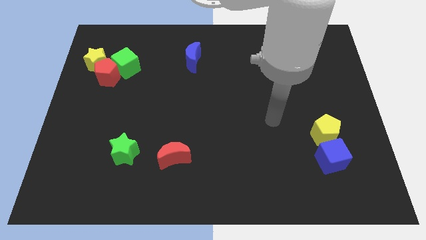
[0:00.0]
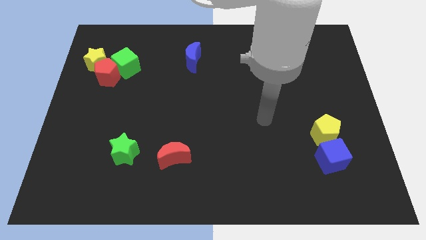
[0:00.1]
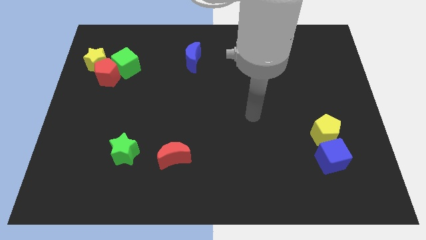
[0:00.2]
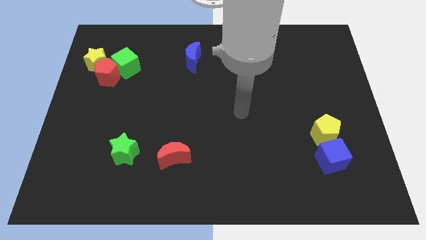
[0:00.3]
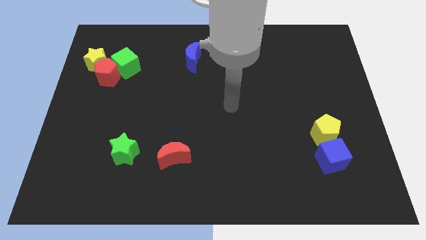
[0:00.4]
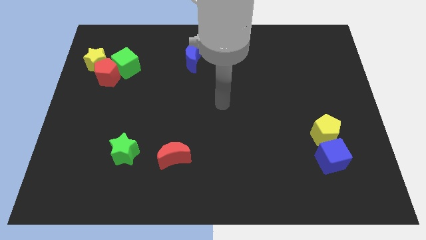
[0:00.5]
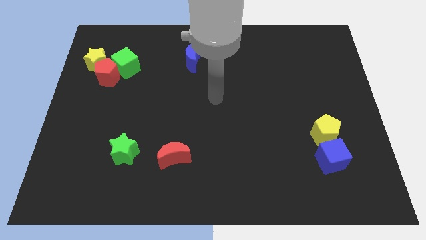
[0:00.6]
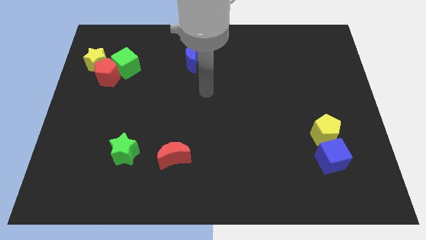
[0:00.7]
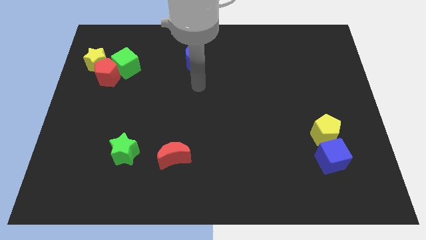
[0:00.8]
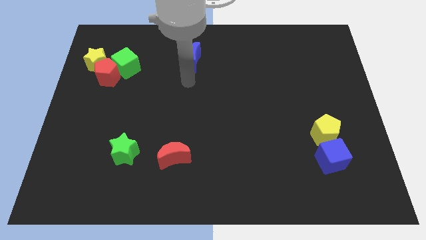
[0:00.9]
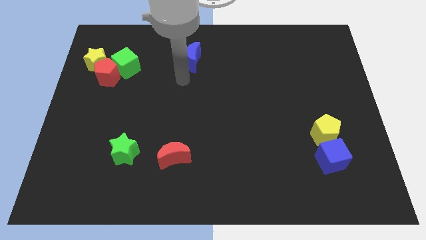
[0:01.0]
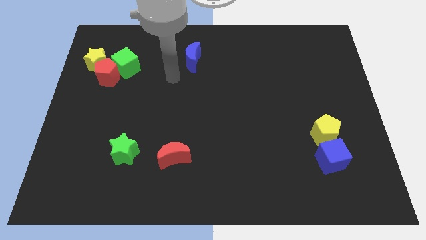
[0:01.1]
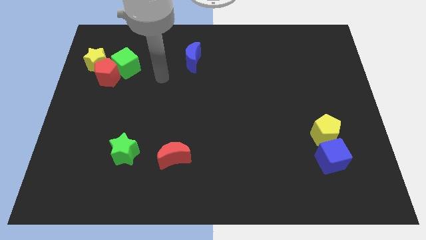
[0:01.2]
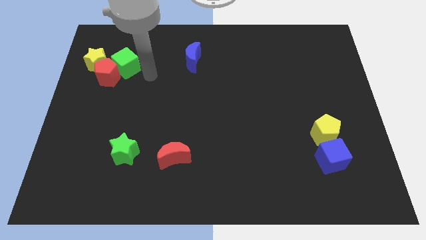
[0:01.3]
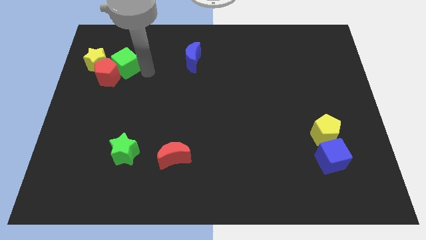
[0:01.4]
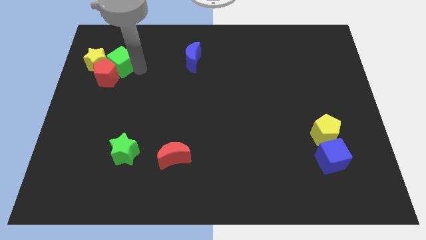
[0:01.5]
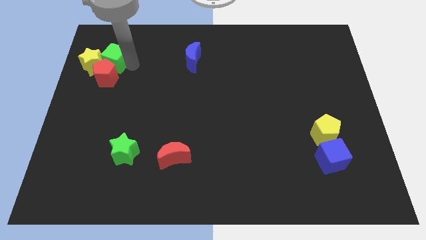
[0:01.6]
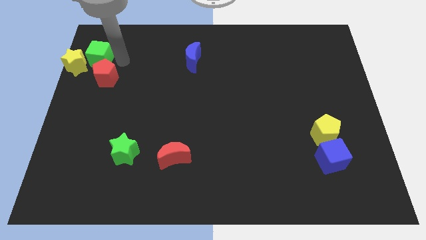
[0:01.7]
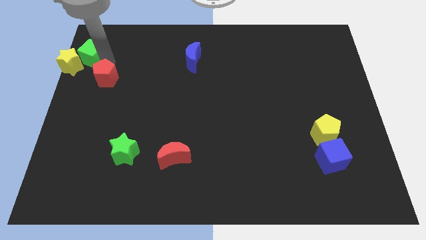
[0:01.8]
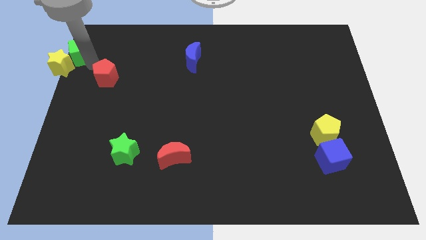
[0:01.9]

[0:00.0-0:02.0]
move the red pentagon away from the yellow star and green cube

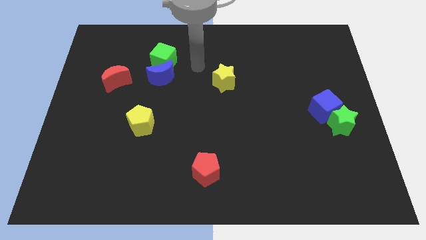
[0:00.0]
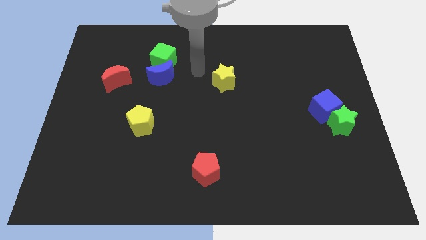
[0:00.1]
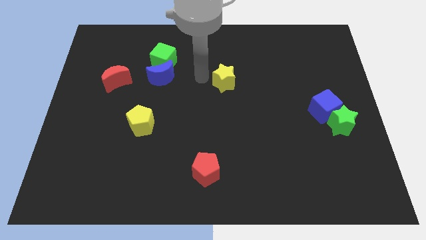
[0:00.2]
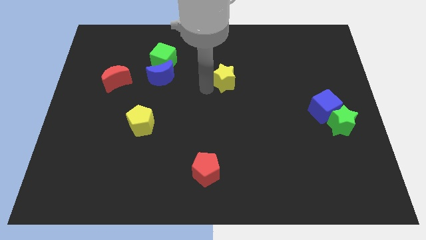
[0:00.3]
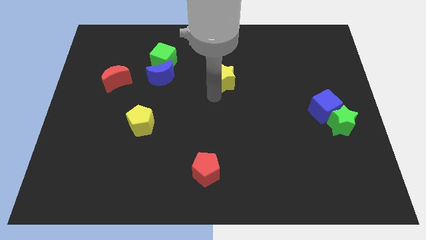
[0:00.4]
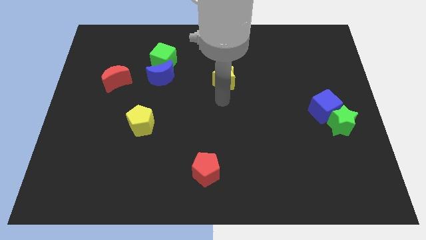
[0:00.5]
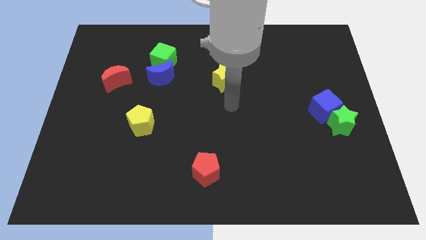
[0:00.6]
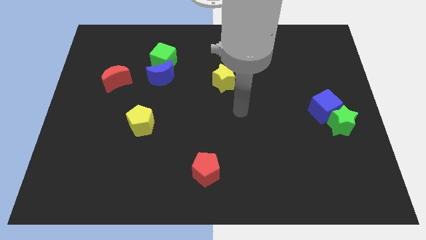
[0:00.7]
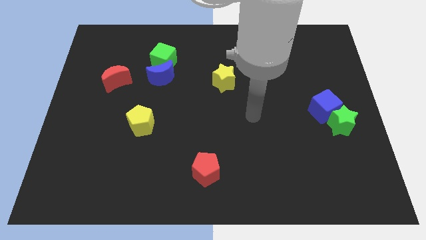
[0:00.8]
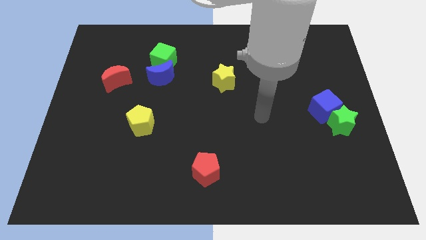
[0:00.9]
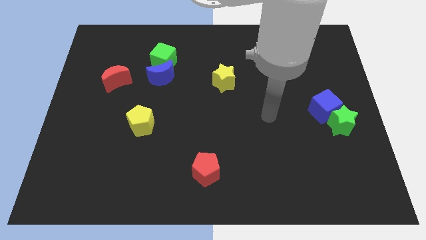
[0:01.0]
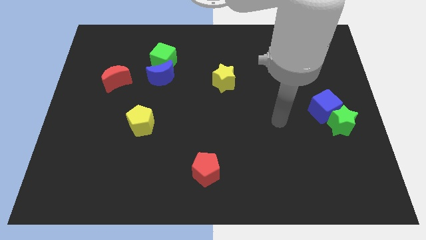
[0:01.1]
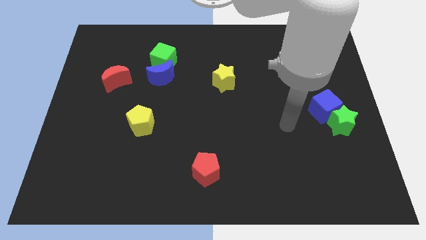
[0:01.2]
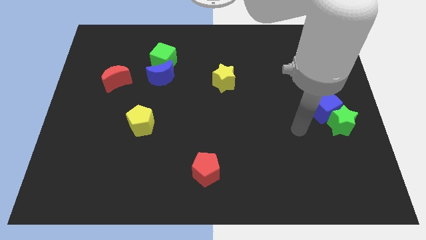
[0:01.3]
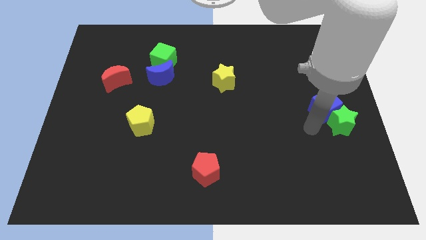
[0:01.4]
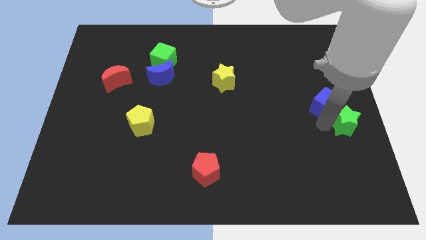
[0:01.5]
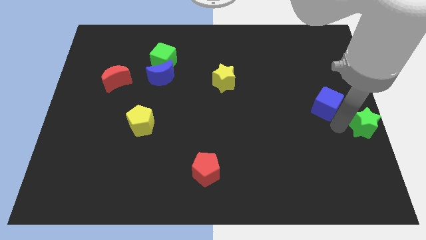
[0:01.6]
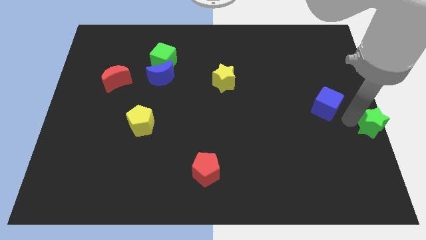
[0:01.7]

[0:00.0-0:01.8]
pull the blue cube apart from the green star

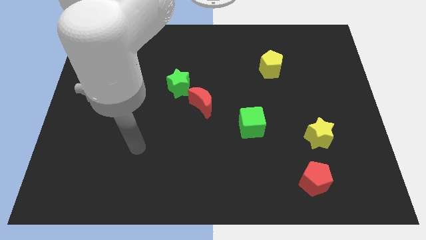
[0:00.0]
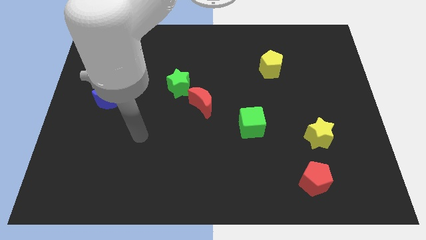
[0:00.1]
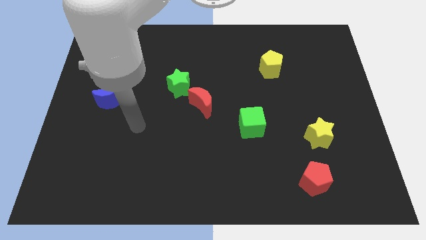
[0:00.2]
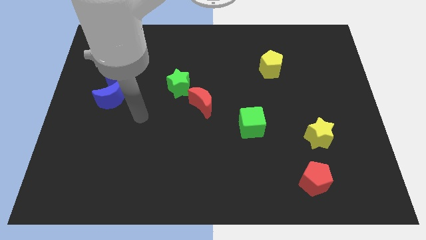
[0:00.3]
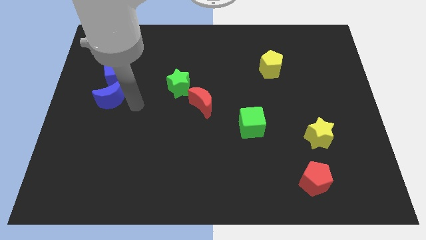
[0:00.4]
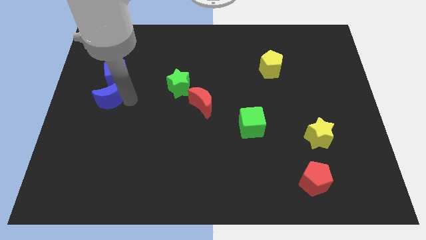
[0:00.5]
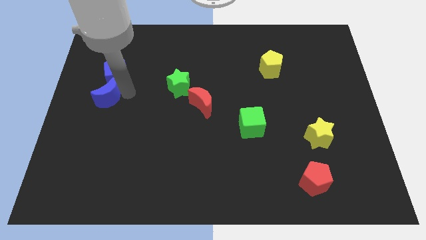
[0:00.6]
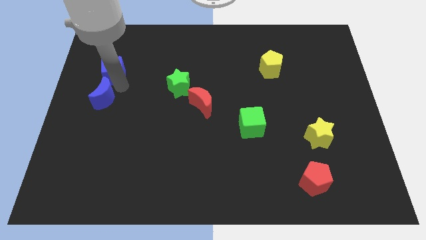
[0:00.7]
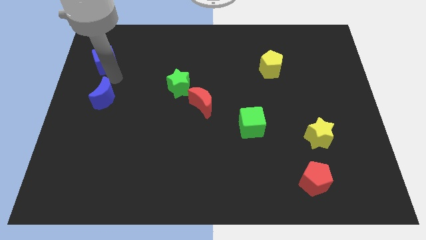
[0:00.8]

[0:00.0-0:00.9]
pull the blue moon apart from the blue cube

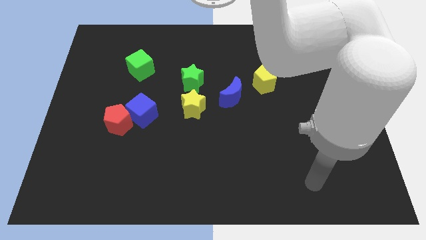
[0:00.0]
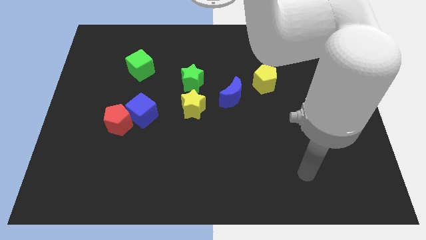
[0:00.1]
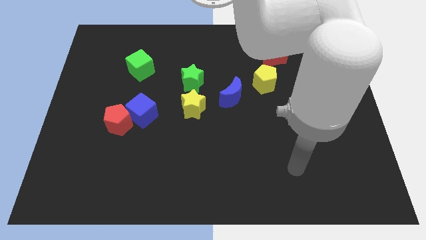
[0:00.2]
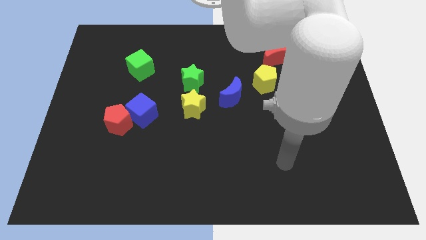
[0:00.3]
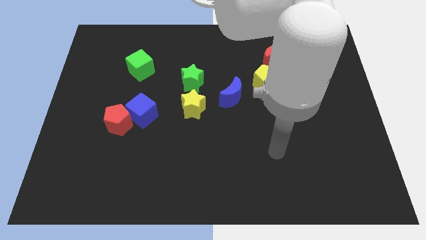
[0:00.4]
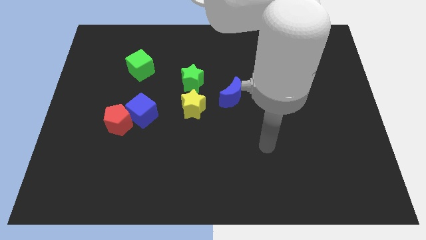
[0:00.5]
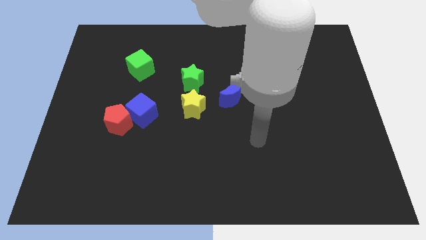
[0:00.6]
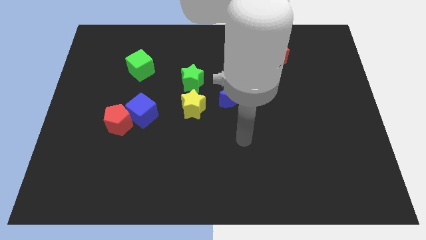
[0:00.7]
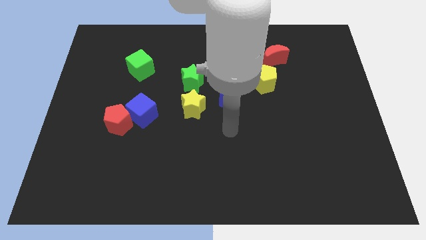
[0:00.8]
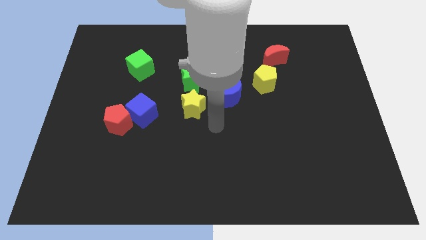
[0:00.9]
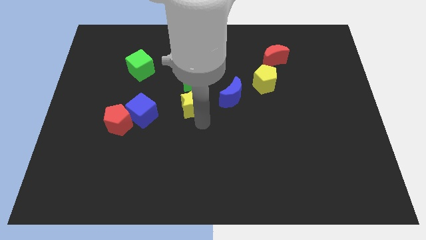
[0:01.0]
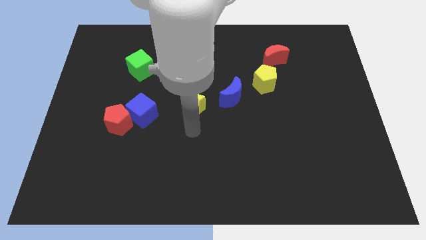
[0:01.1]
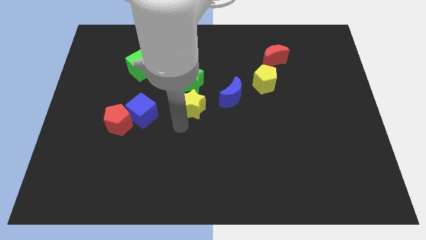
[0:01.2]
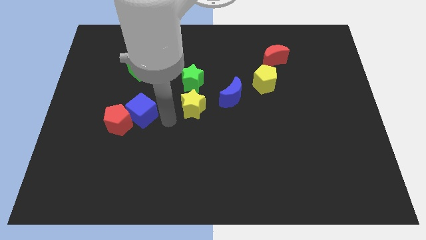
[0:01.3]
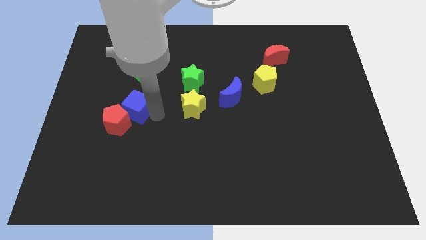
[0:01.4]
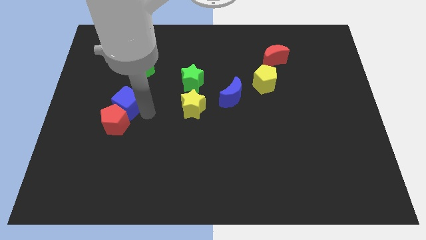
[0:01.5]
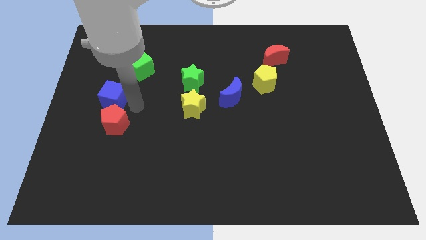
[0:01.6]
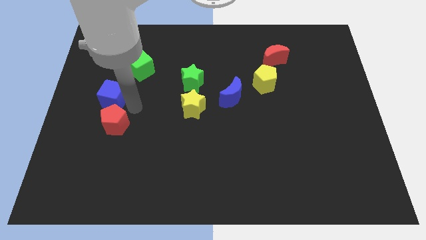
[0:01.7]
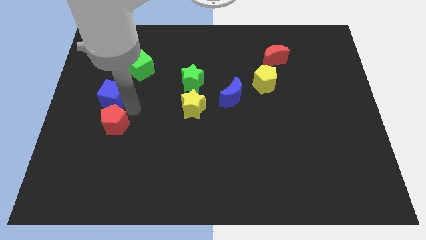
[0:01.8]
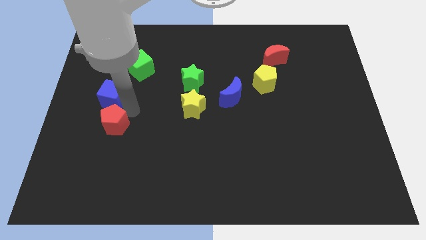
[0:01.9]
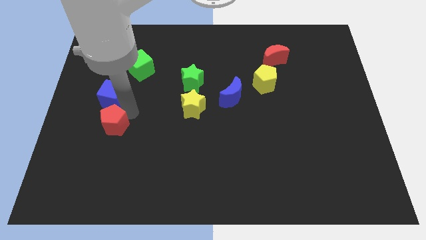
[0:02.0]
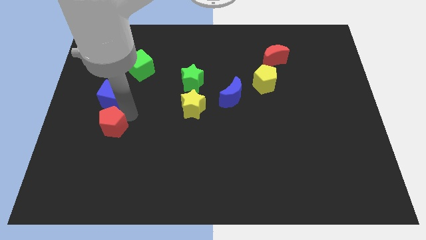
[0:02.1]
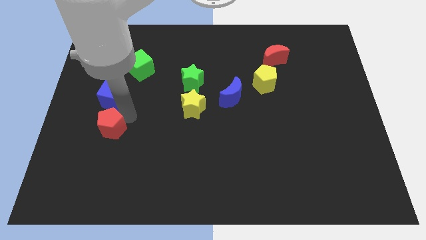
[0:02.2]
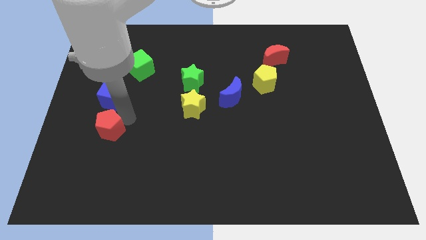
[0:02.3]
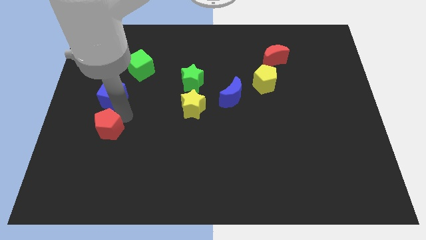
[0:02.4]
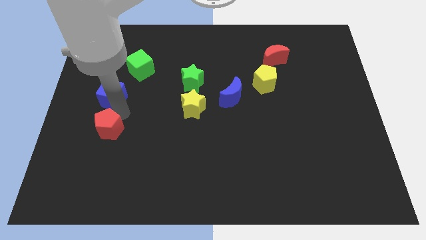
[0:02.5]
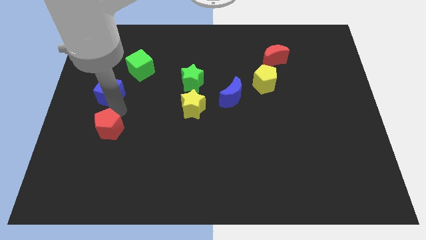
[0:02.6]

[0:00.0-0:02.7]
separate the red pentagon from the blue cube

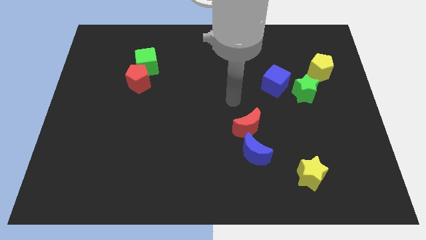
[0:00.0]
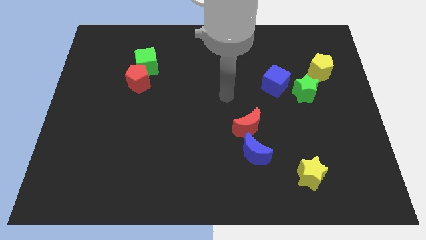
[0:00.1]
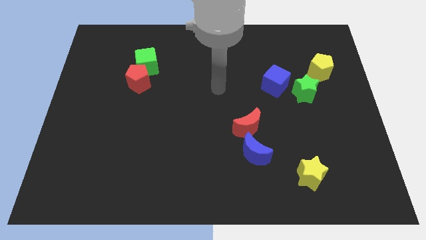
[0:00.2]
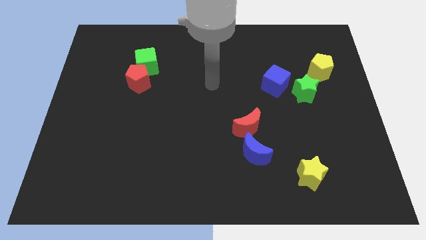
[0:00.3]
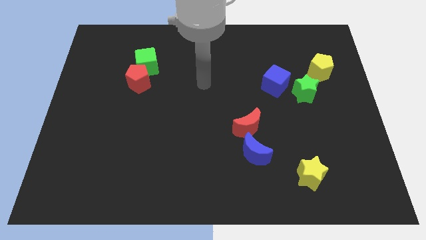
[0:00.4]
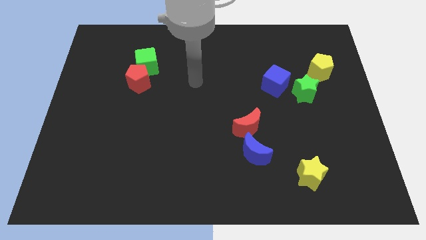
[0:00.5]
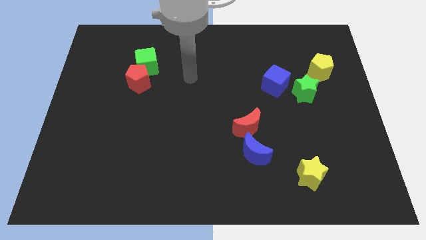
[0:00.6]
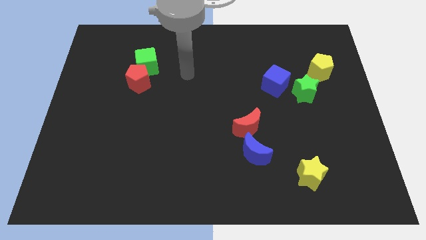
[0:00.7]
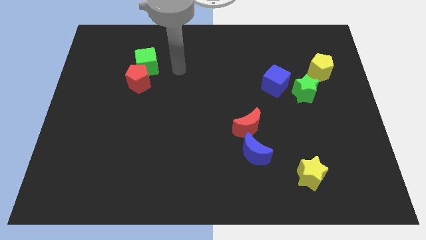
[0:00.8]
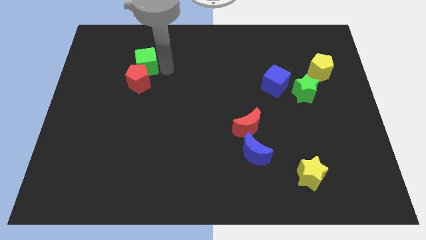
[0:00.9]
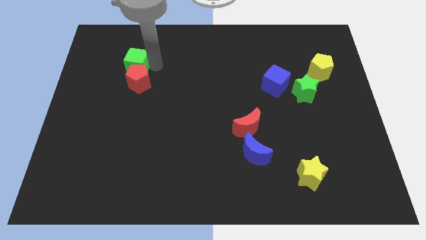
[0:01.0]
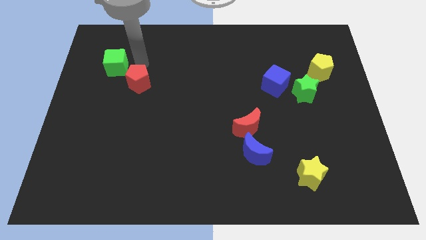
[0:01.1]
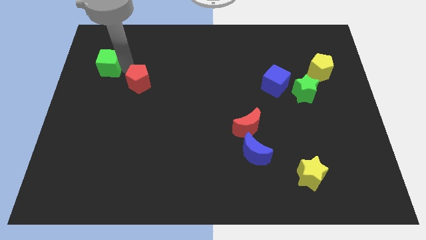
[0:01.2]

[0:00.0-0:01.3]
move the red pentagon away from the green cube

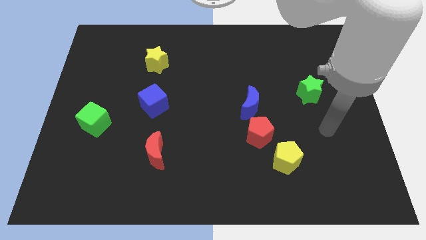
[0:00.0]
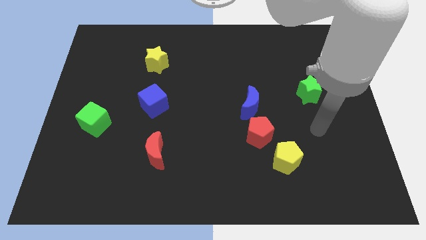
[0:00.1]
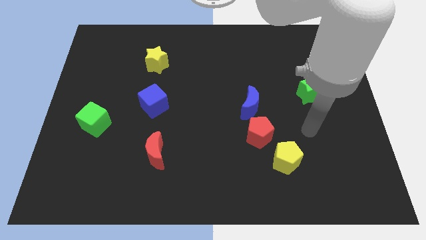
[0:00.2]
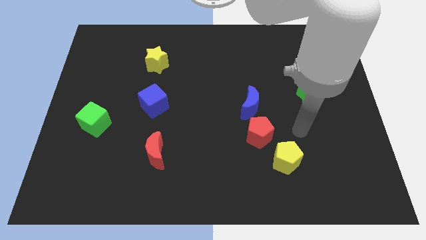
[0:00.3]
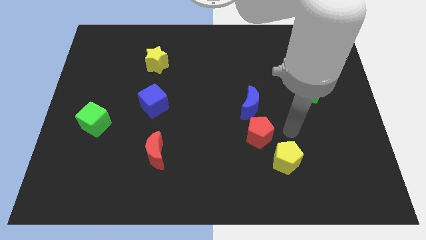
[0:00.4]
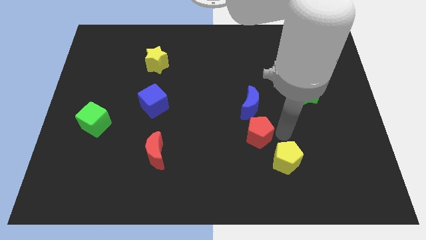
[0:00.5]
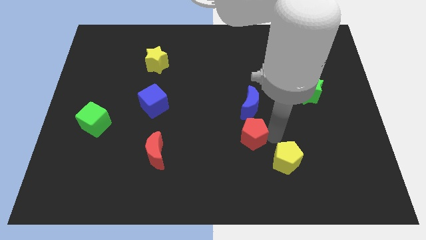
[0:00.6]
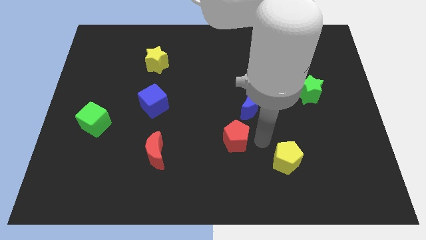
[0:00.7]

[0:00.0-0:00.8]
move the yellow pentagon away from the red pentagon
